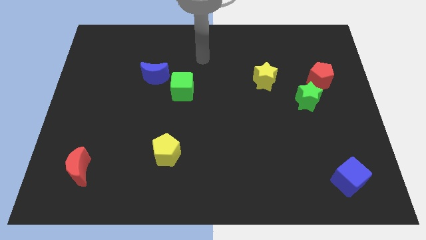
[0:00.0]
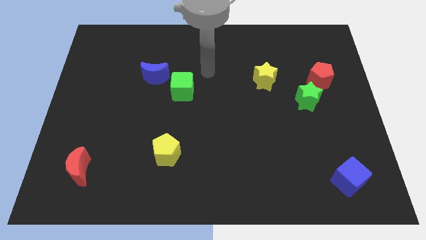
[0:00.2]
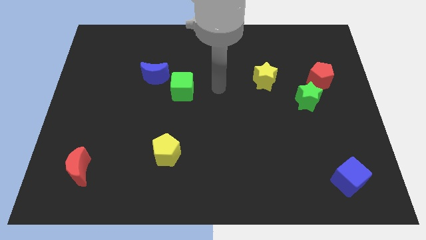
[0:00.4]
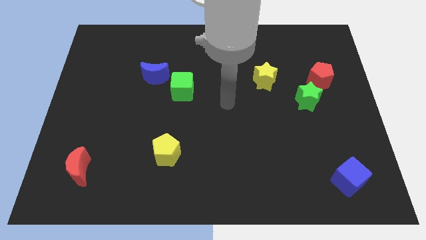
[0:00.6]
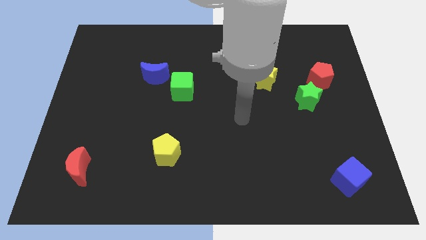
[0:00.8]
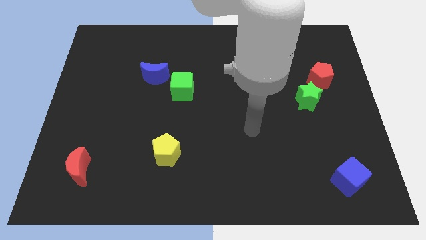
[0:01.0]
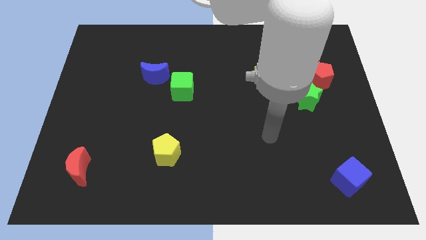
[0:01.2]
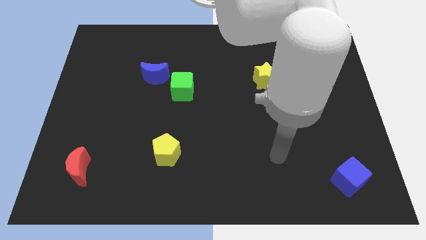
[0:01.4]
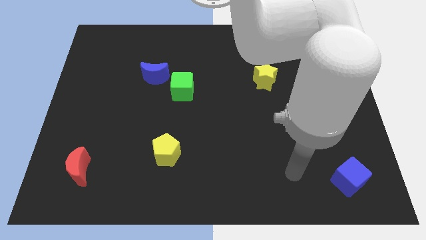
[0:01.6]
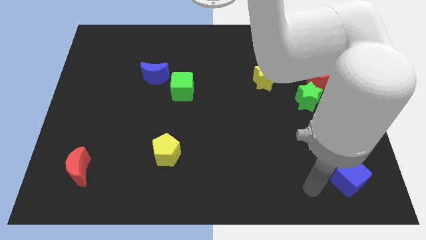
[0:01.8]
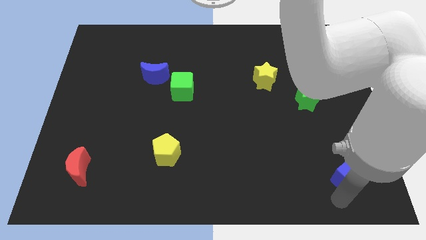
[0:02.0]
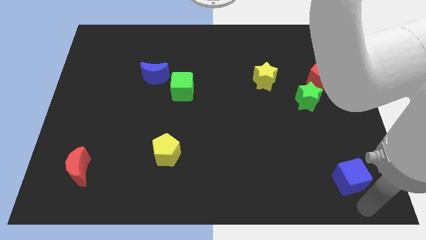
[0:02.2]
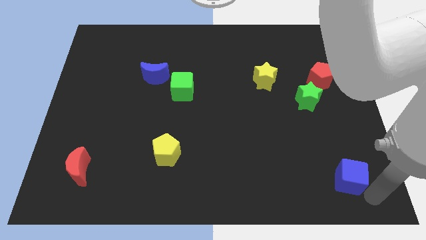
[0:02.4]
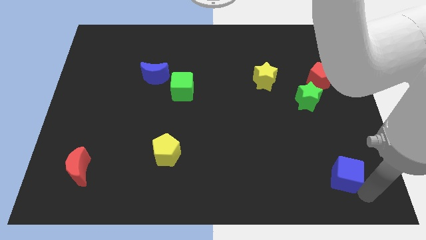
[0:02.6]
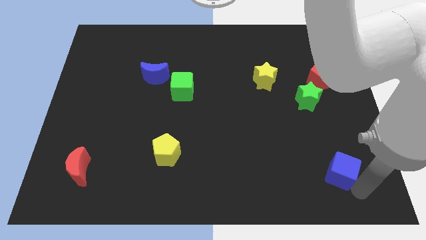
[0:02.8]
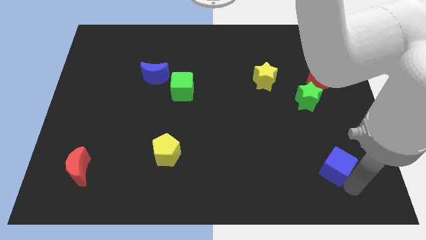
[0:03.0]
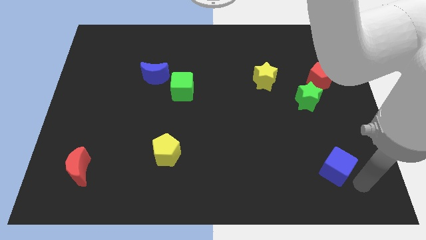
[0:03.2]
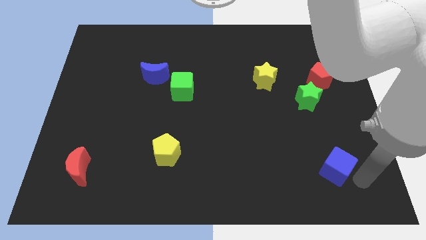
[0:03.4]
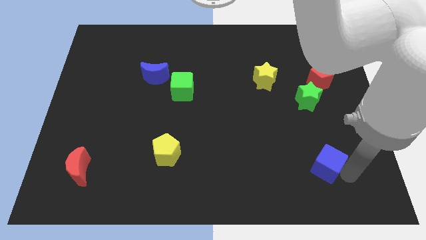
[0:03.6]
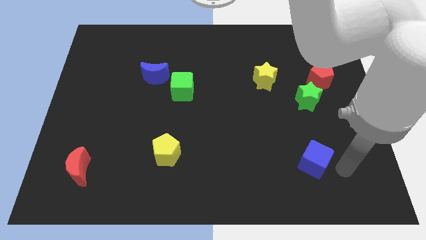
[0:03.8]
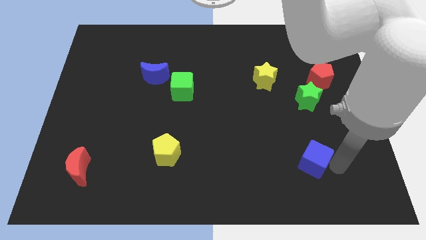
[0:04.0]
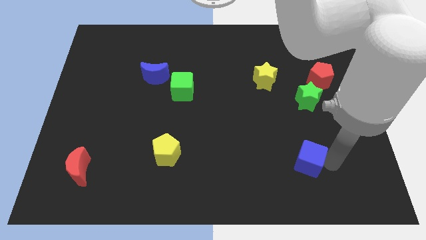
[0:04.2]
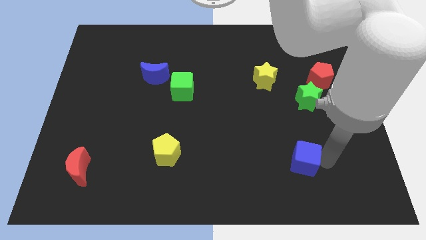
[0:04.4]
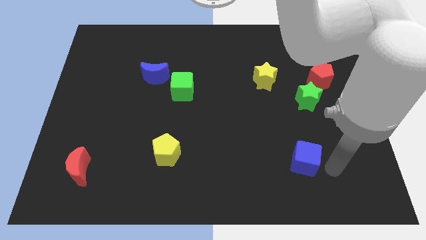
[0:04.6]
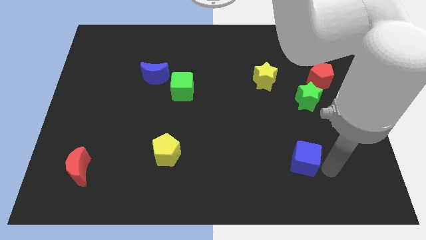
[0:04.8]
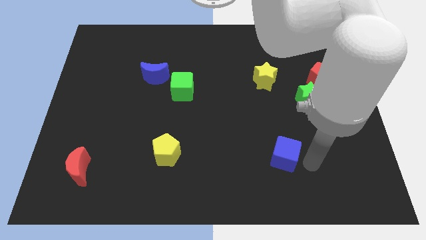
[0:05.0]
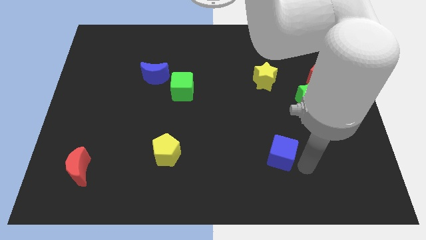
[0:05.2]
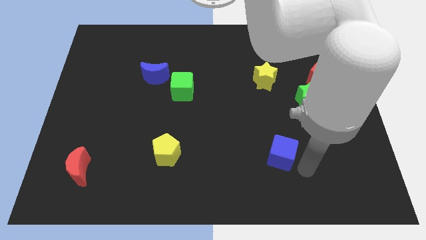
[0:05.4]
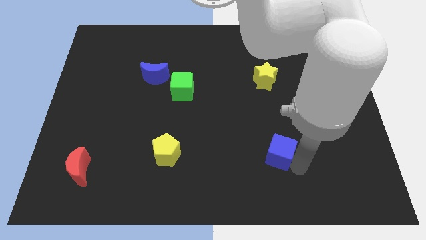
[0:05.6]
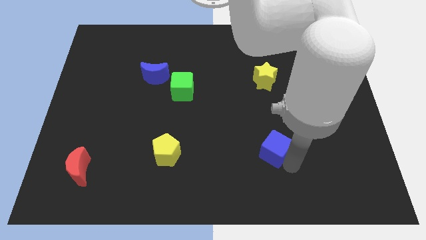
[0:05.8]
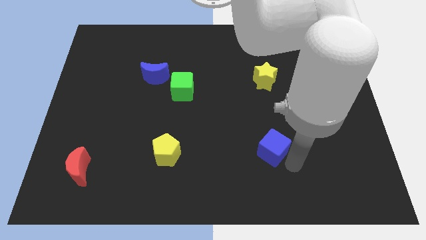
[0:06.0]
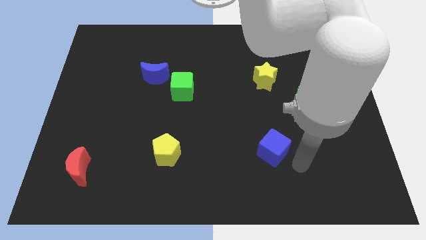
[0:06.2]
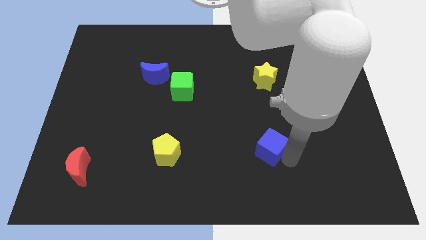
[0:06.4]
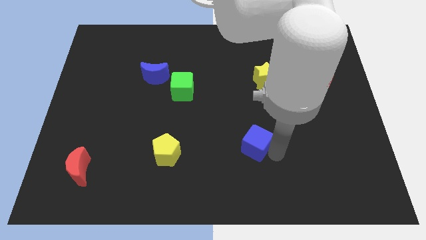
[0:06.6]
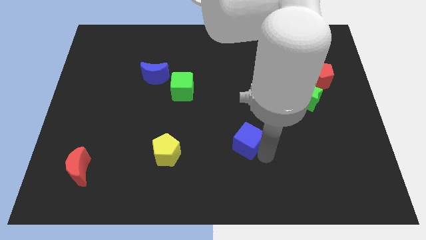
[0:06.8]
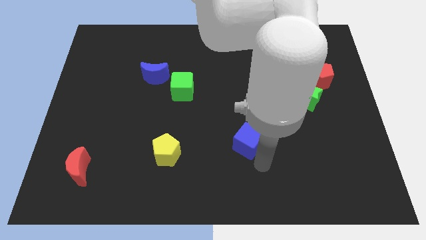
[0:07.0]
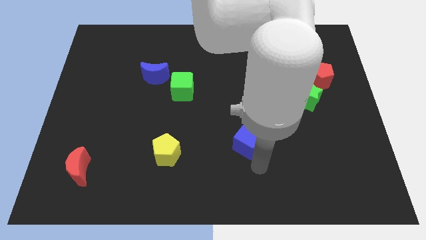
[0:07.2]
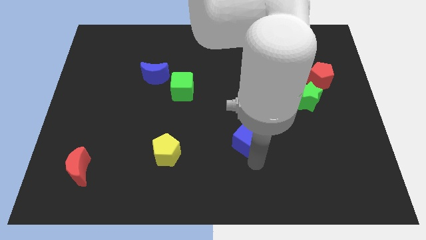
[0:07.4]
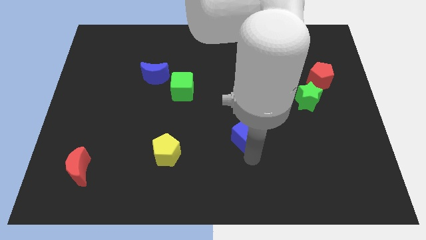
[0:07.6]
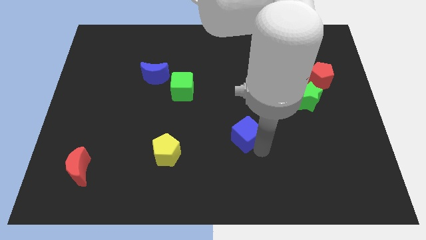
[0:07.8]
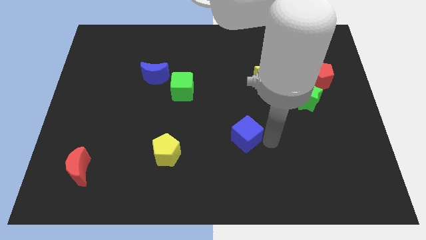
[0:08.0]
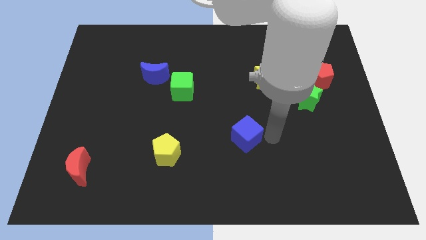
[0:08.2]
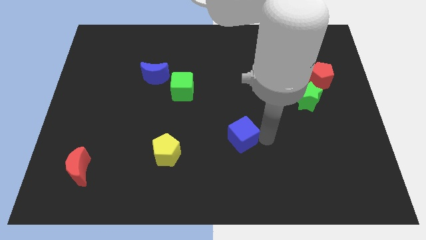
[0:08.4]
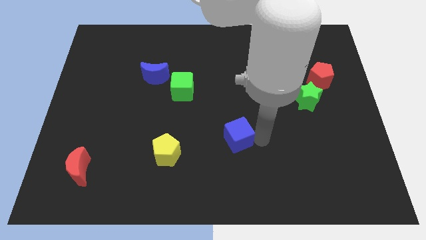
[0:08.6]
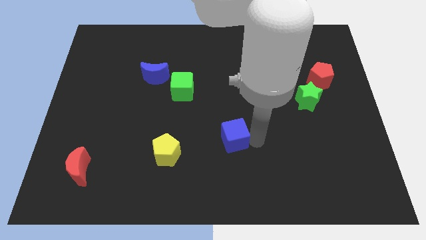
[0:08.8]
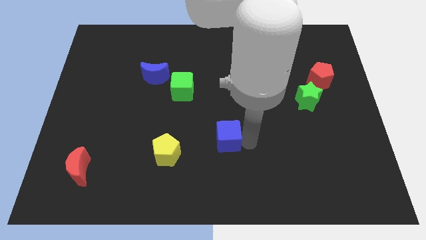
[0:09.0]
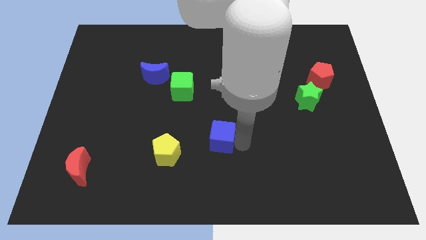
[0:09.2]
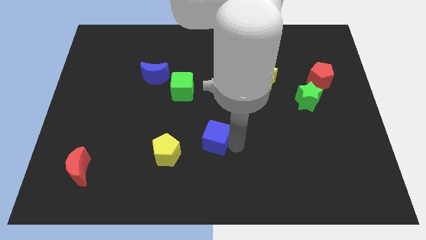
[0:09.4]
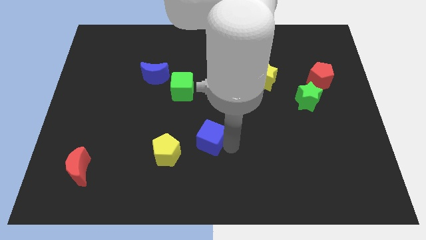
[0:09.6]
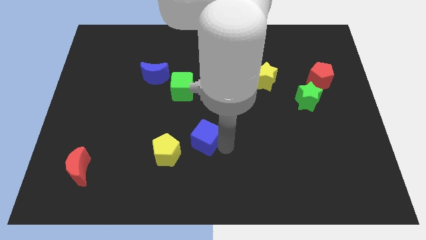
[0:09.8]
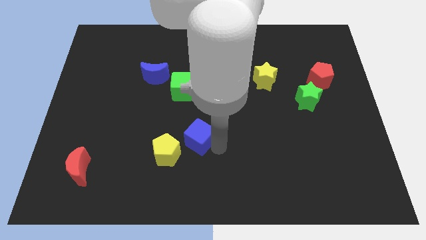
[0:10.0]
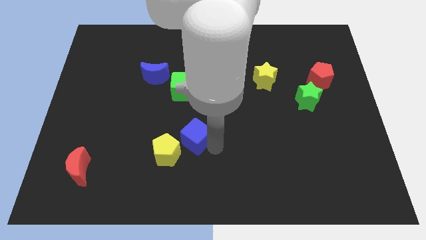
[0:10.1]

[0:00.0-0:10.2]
move the blue cube to the bottom side of the green cube

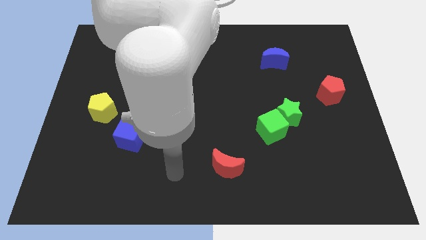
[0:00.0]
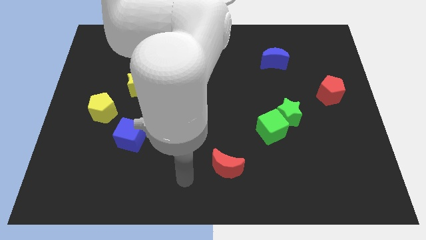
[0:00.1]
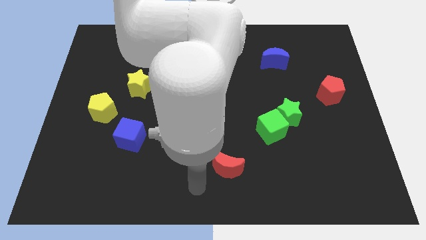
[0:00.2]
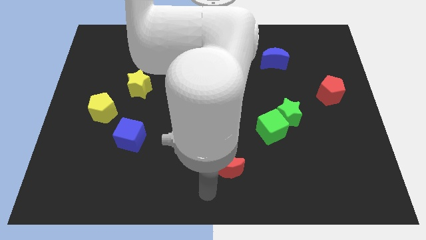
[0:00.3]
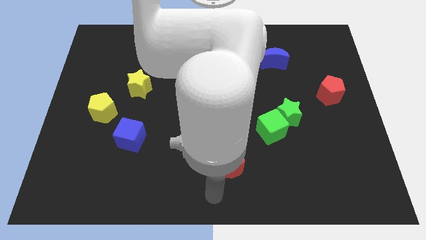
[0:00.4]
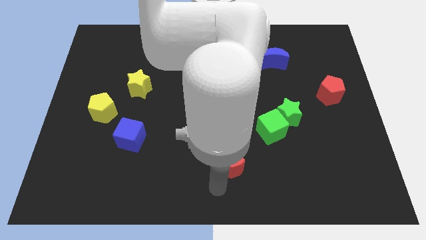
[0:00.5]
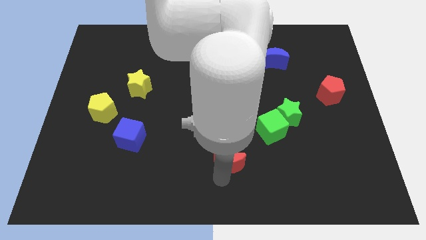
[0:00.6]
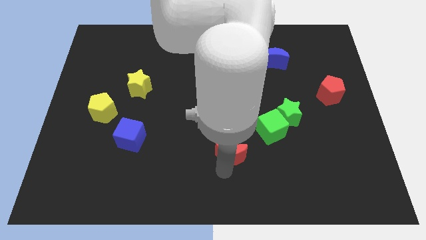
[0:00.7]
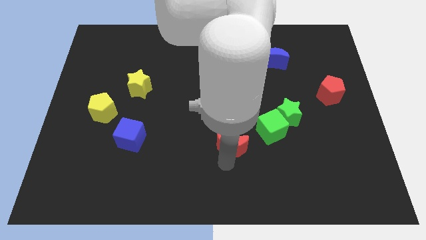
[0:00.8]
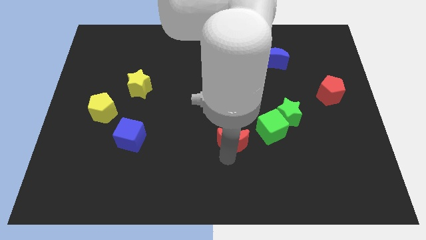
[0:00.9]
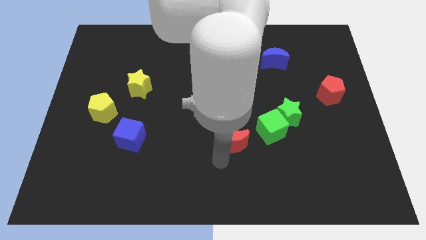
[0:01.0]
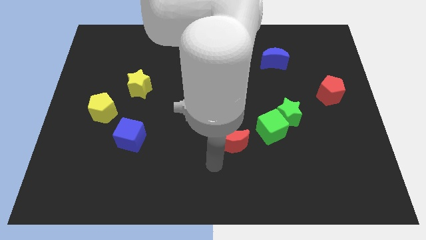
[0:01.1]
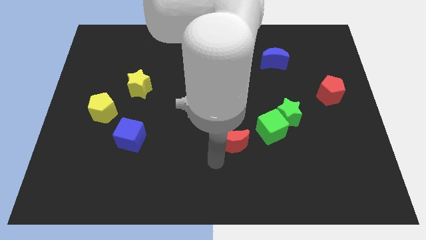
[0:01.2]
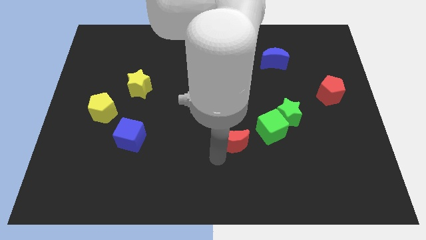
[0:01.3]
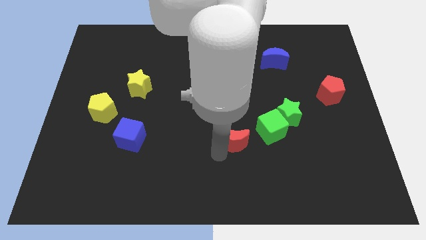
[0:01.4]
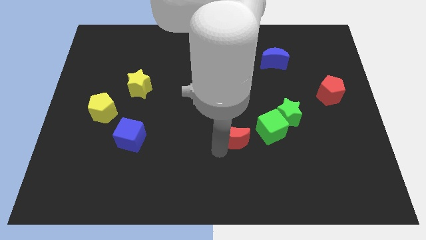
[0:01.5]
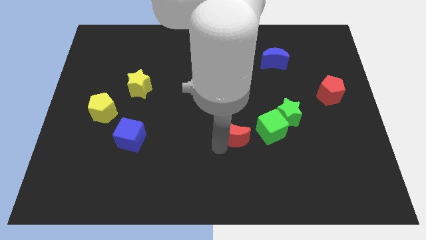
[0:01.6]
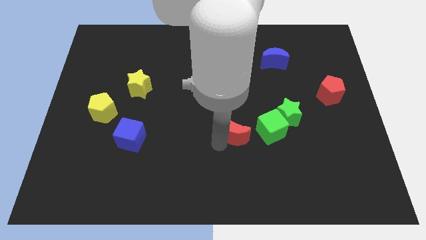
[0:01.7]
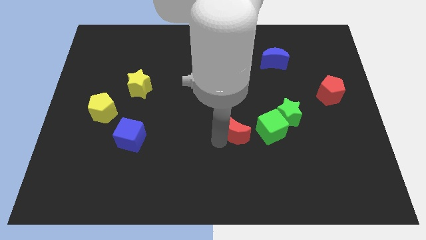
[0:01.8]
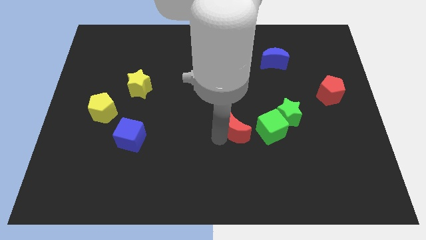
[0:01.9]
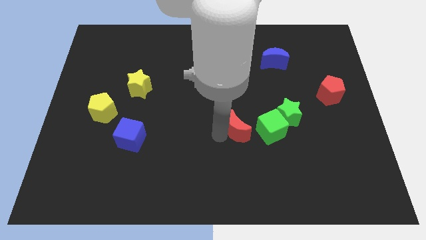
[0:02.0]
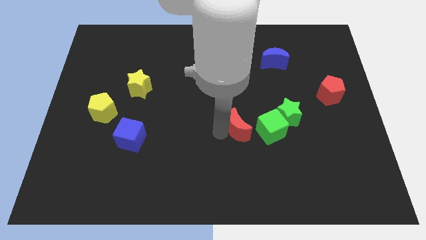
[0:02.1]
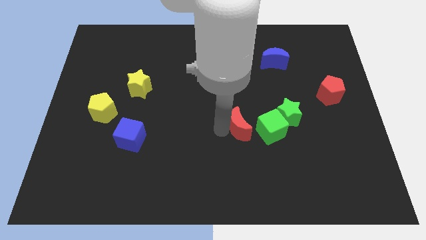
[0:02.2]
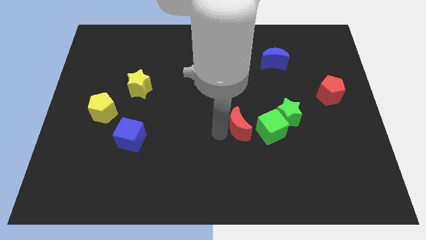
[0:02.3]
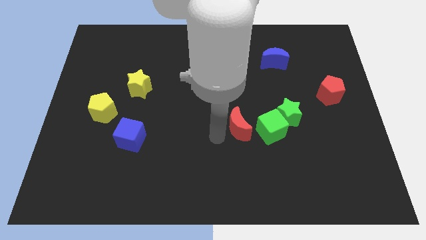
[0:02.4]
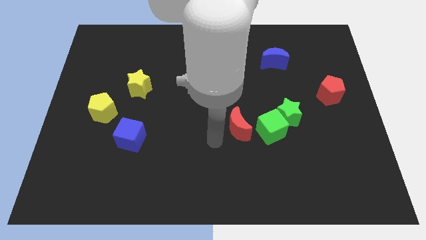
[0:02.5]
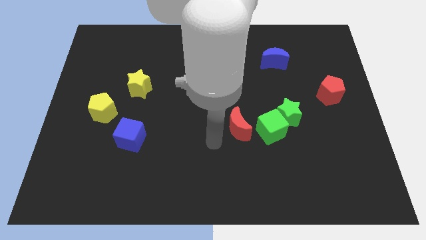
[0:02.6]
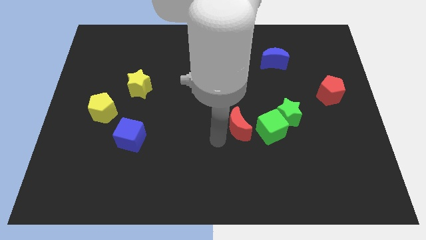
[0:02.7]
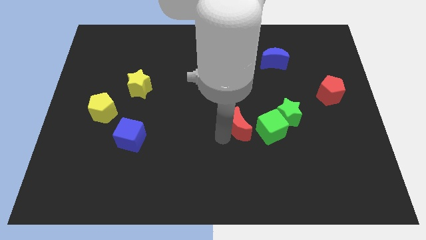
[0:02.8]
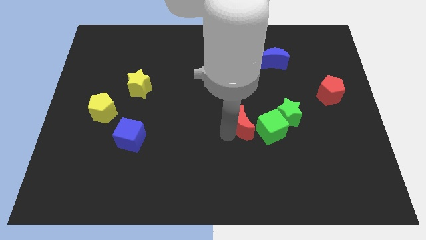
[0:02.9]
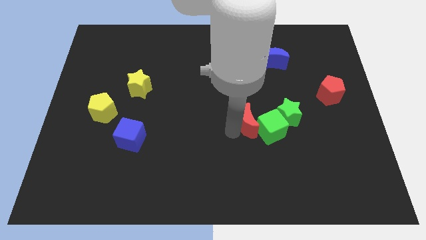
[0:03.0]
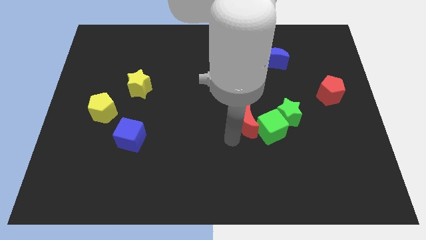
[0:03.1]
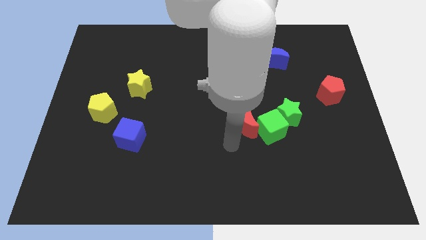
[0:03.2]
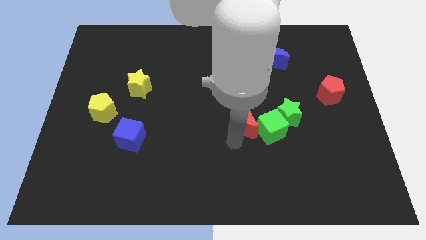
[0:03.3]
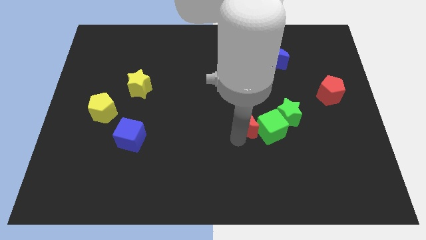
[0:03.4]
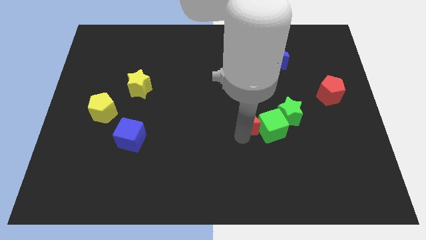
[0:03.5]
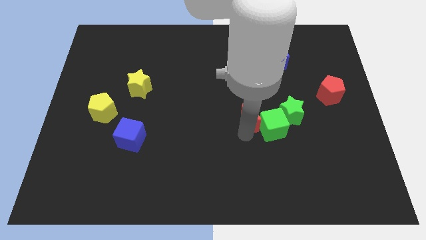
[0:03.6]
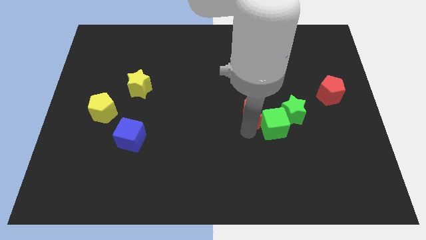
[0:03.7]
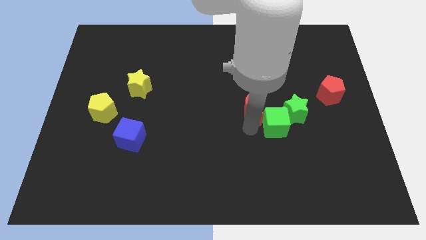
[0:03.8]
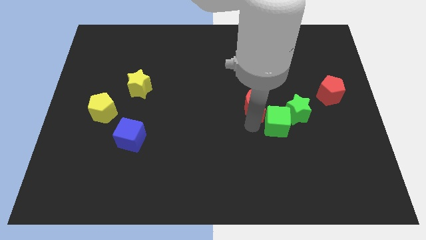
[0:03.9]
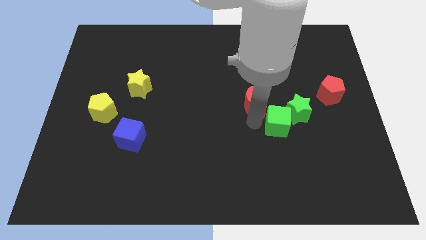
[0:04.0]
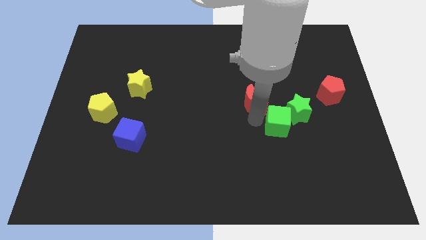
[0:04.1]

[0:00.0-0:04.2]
move the red moon to the top side of the green cube
